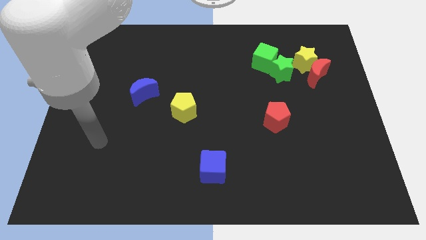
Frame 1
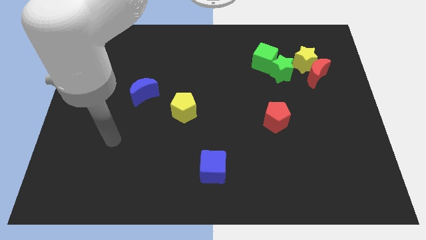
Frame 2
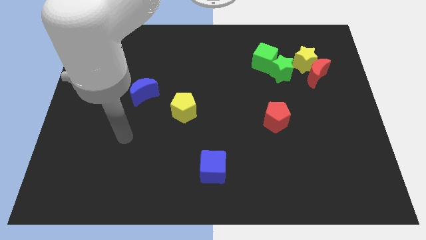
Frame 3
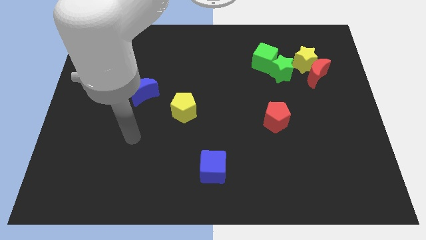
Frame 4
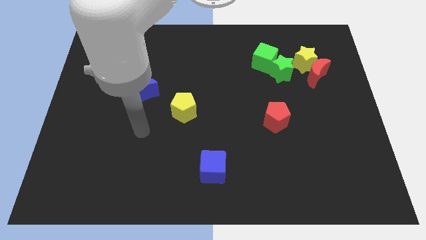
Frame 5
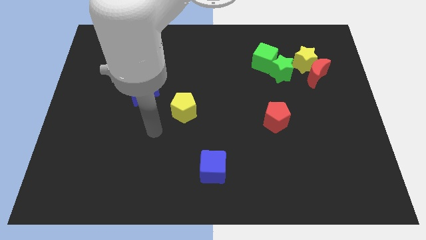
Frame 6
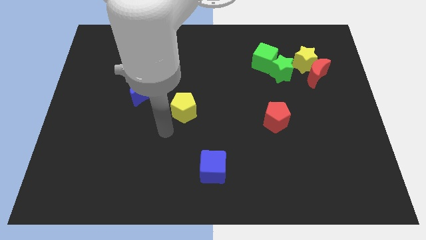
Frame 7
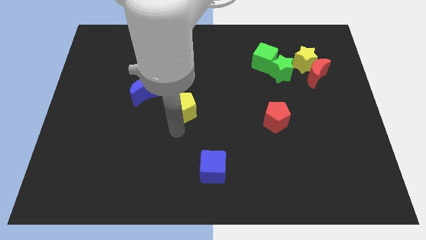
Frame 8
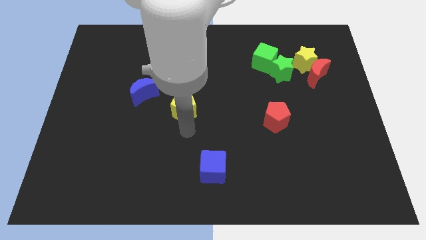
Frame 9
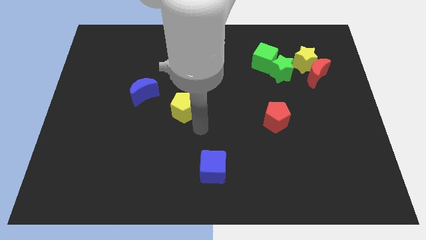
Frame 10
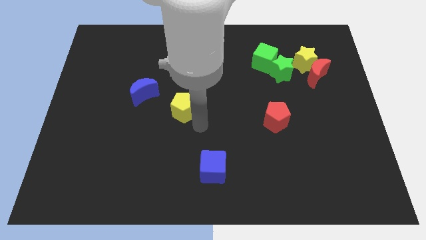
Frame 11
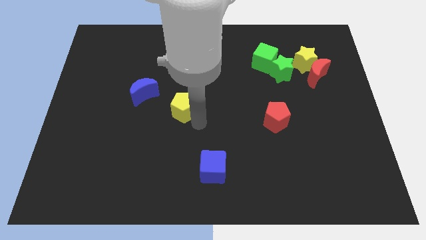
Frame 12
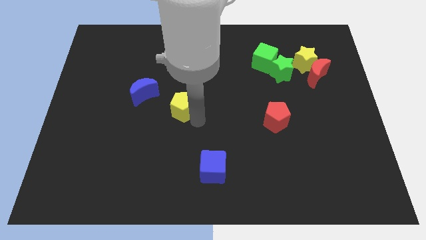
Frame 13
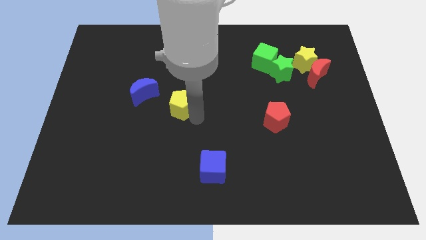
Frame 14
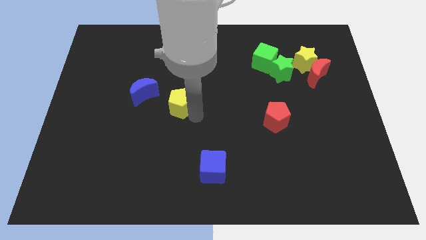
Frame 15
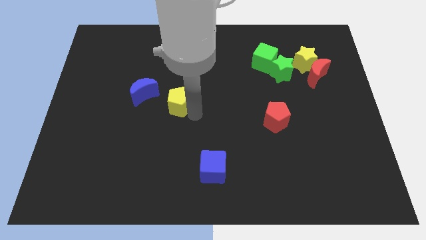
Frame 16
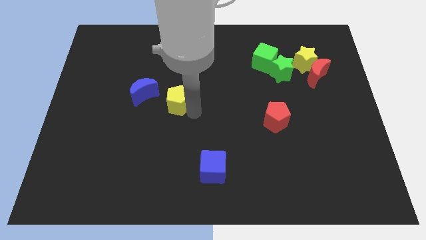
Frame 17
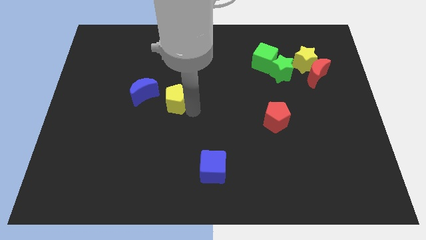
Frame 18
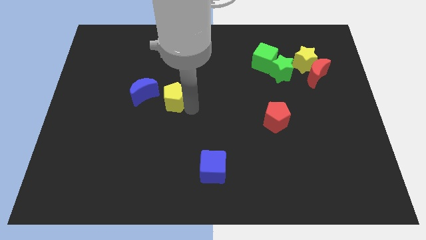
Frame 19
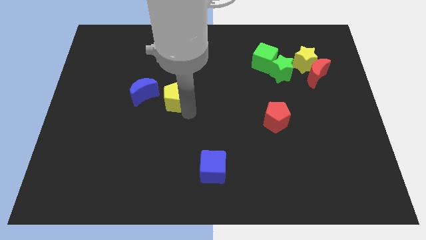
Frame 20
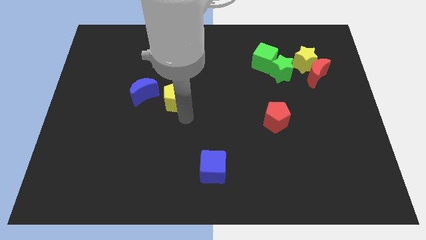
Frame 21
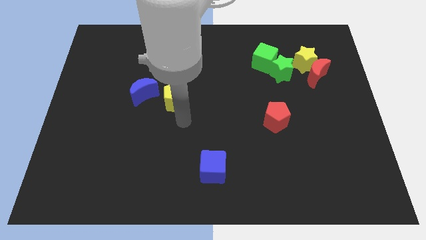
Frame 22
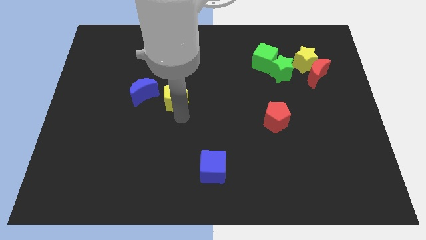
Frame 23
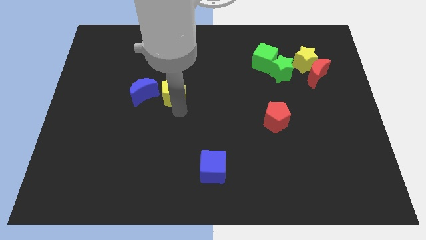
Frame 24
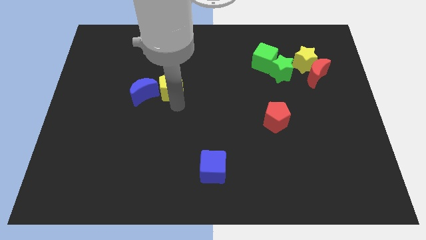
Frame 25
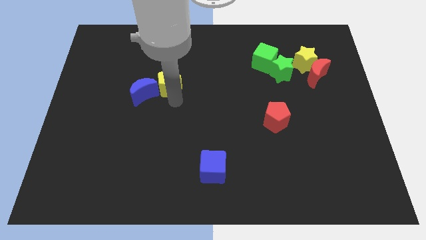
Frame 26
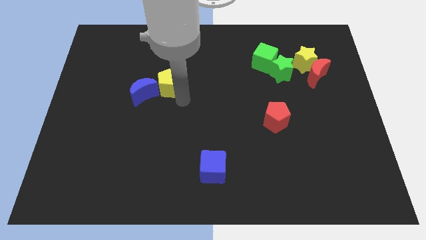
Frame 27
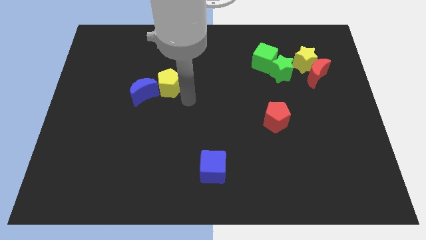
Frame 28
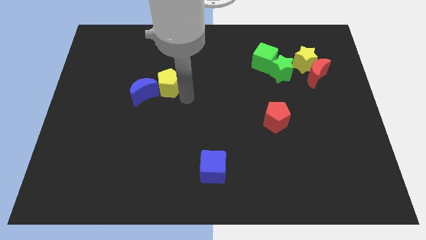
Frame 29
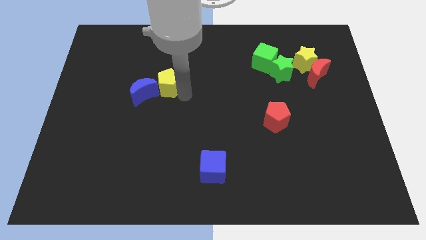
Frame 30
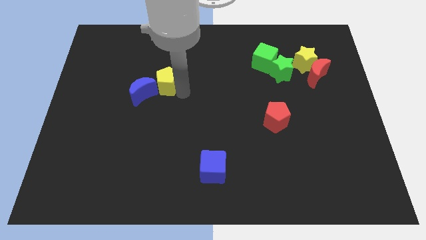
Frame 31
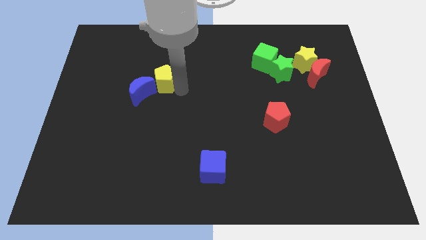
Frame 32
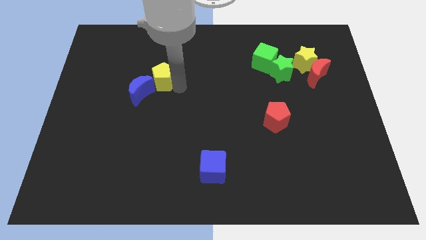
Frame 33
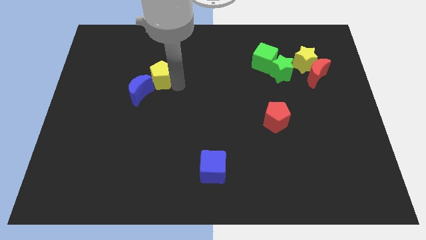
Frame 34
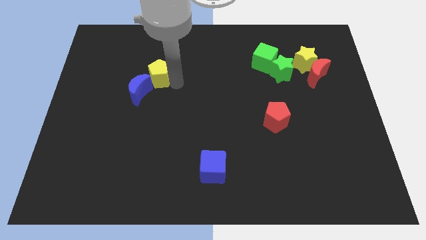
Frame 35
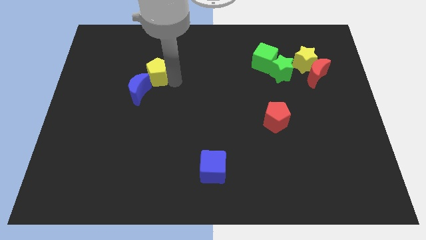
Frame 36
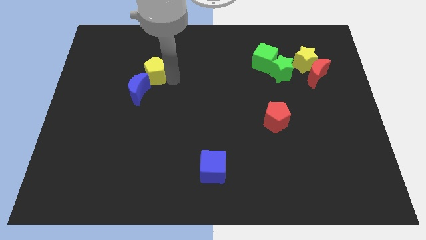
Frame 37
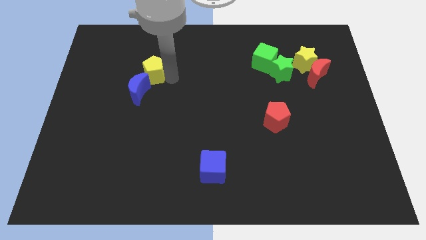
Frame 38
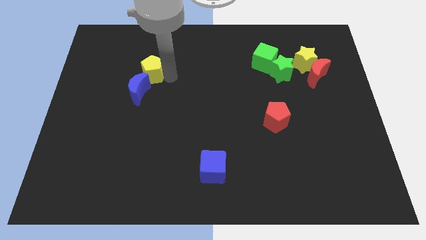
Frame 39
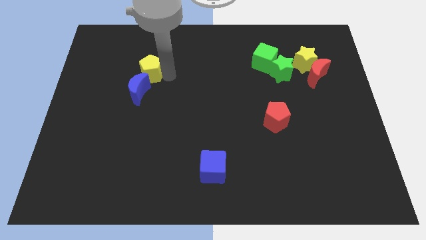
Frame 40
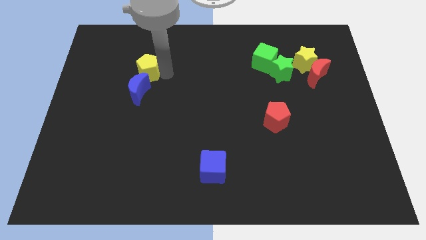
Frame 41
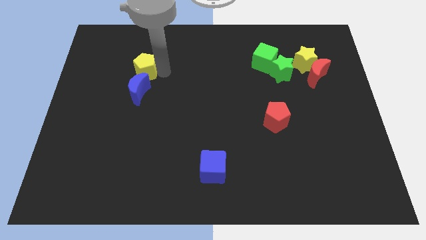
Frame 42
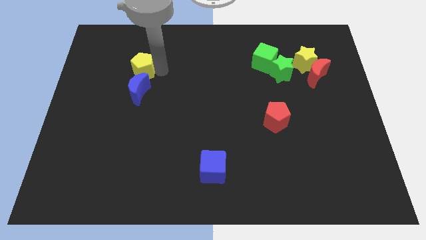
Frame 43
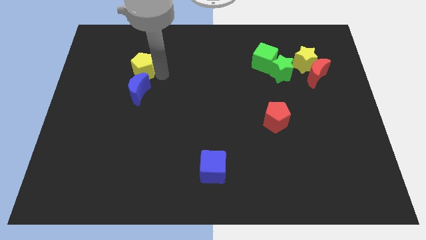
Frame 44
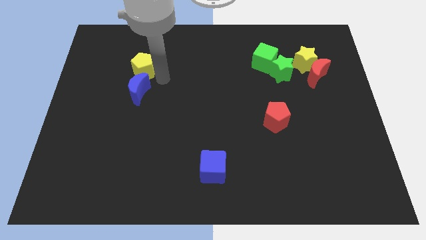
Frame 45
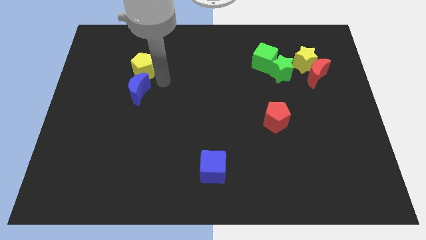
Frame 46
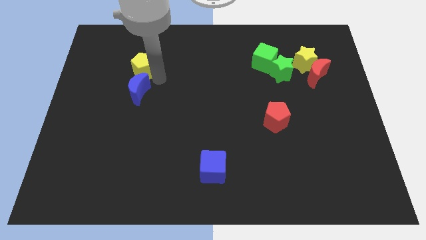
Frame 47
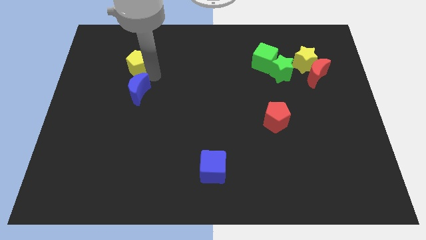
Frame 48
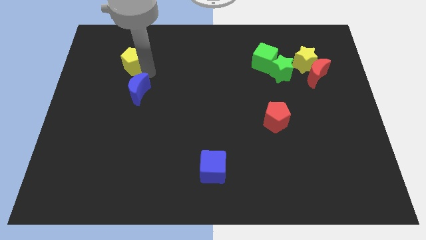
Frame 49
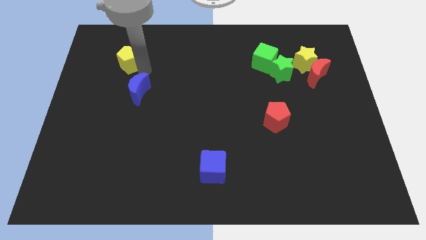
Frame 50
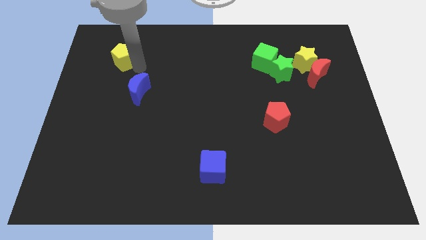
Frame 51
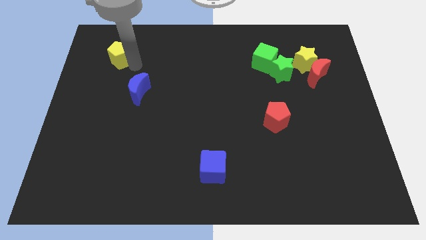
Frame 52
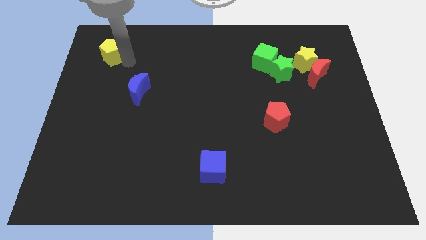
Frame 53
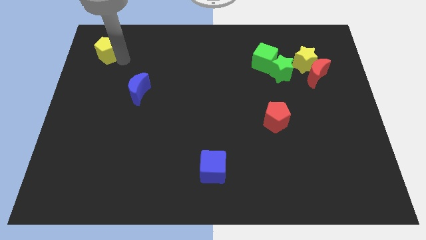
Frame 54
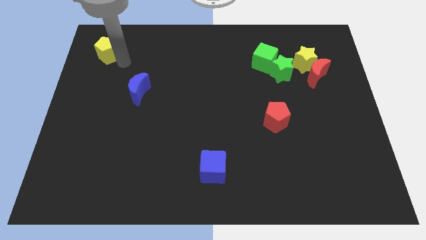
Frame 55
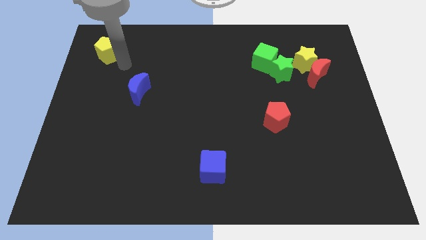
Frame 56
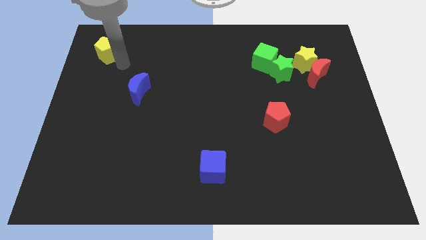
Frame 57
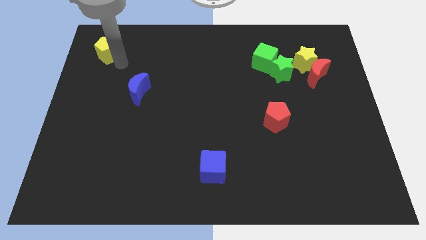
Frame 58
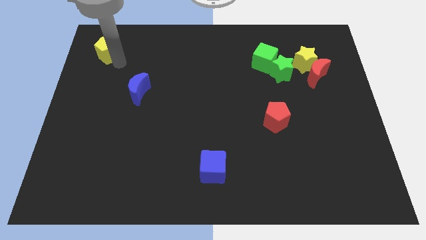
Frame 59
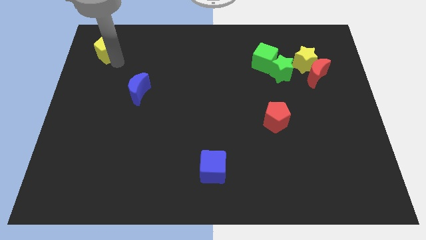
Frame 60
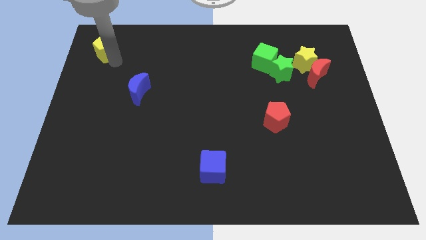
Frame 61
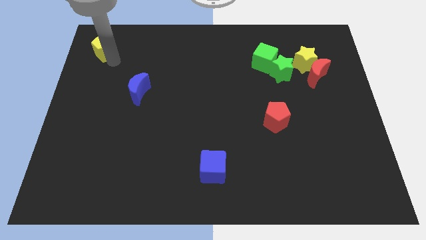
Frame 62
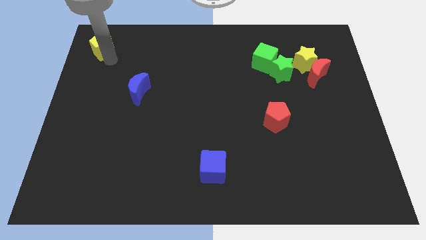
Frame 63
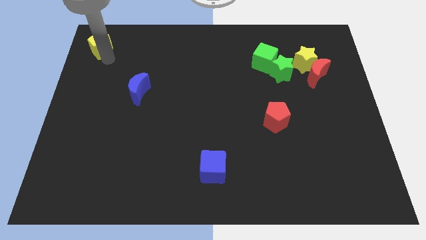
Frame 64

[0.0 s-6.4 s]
push the yellow pentagon to the top left of the board

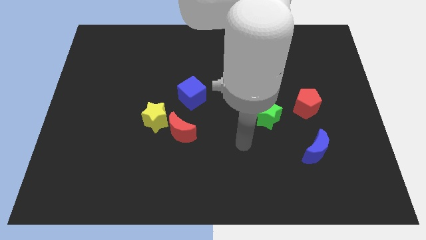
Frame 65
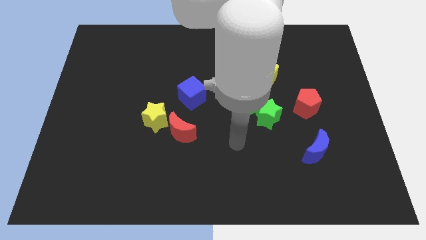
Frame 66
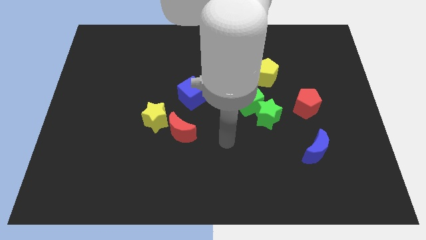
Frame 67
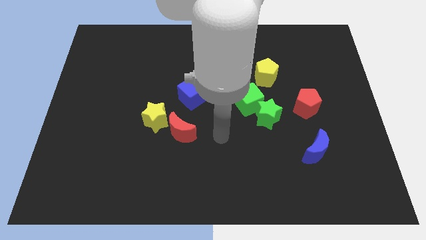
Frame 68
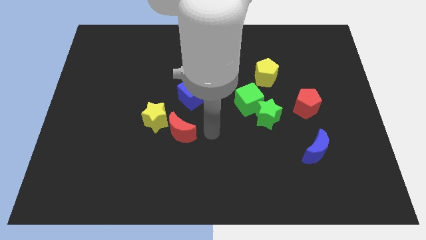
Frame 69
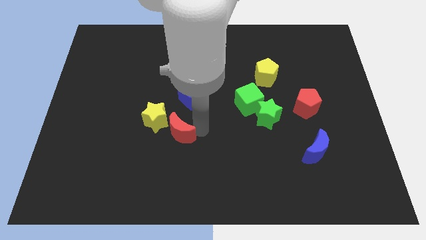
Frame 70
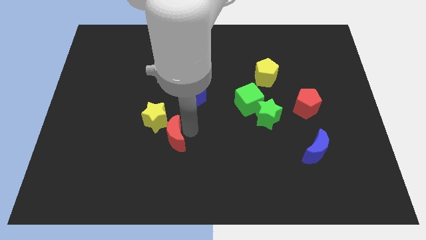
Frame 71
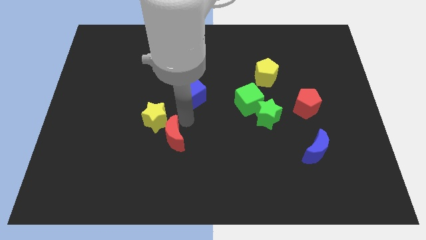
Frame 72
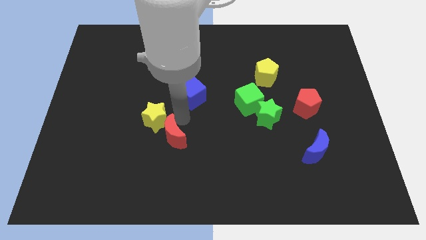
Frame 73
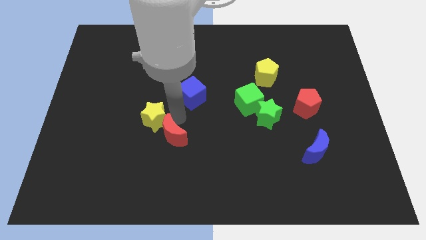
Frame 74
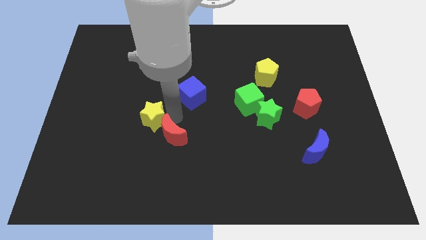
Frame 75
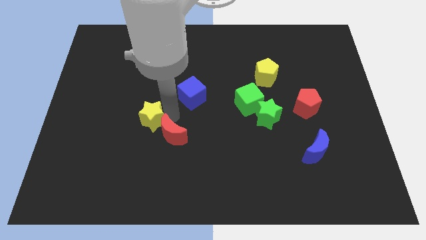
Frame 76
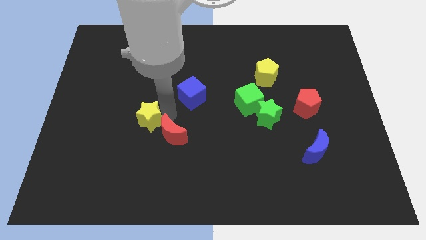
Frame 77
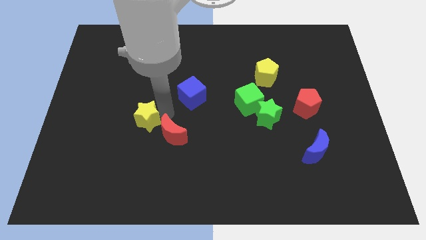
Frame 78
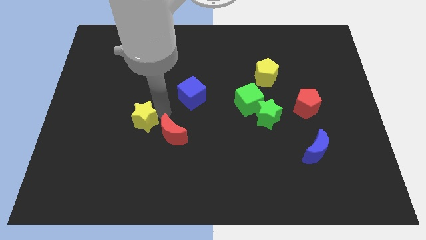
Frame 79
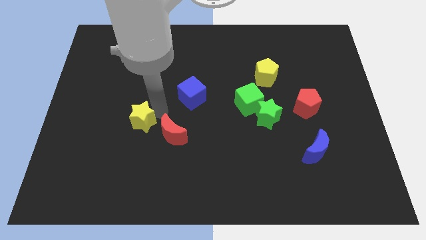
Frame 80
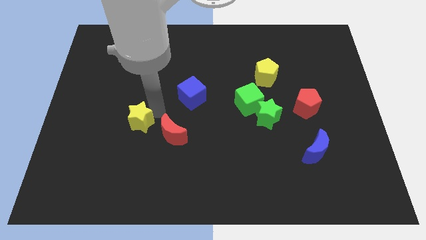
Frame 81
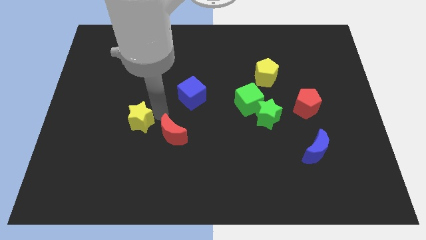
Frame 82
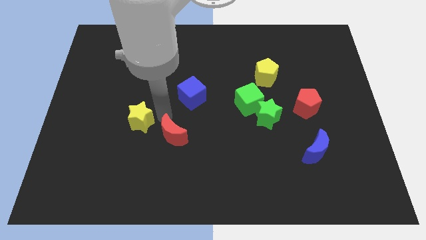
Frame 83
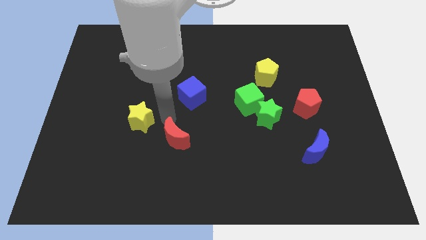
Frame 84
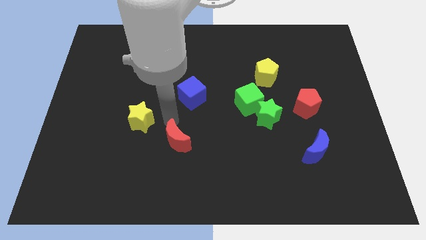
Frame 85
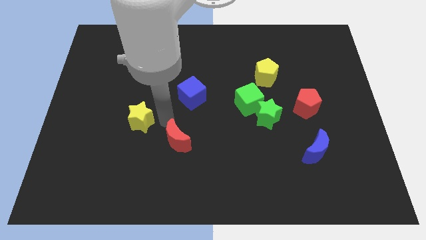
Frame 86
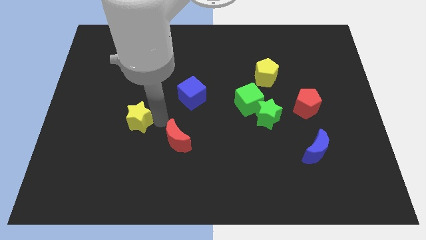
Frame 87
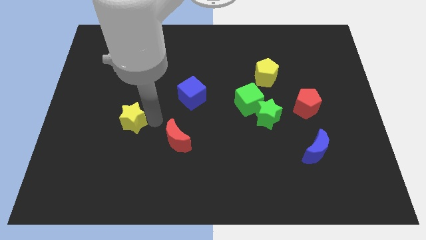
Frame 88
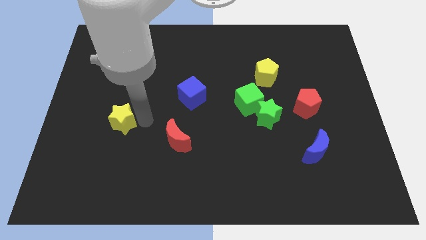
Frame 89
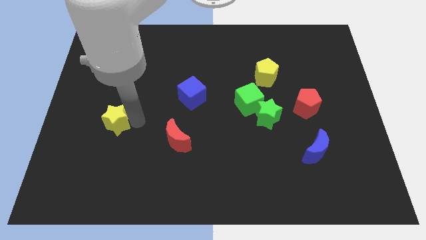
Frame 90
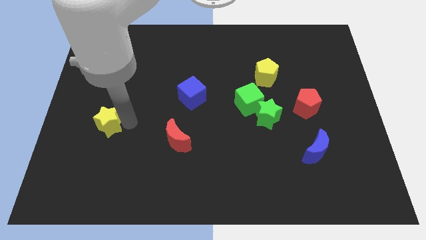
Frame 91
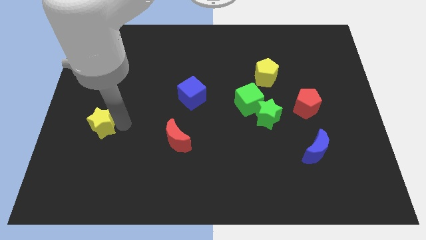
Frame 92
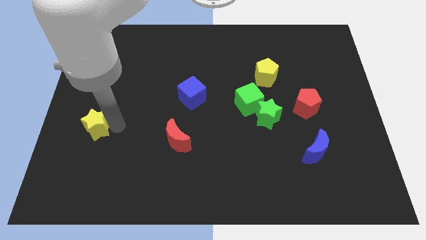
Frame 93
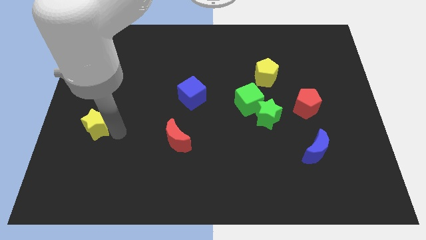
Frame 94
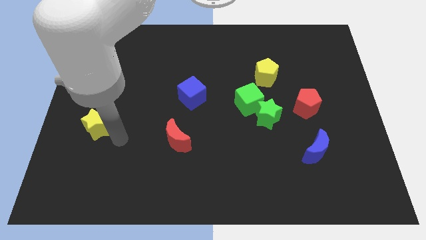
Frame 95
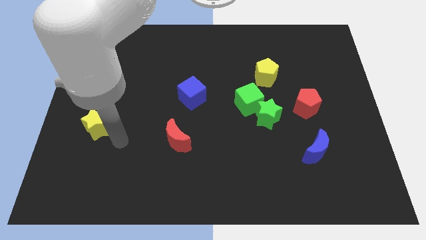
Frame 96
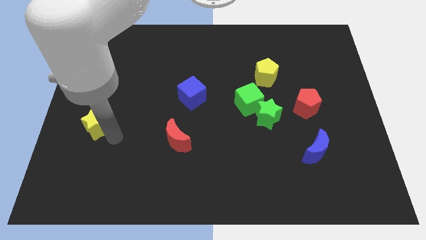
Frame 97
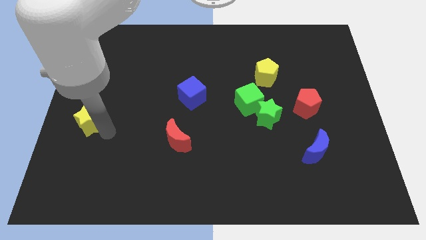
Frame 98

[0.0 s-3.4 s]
move the yellow star to the center left
